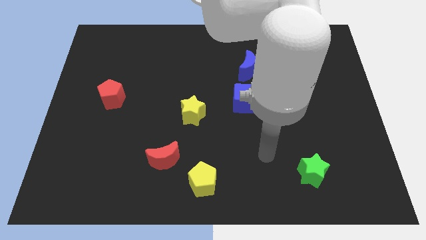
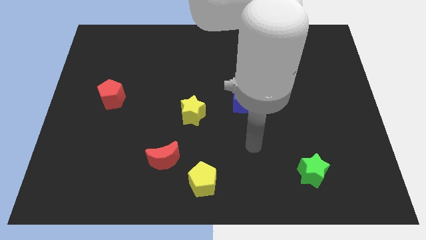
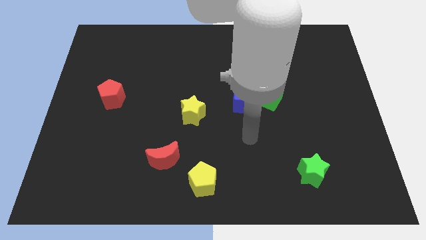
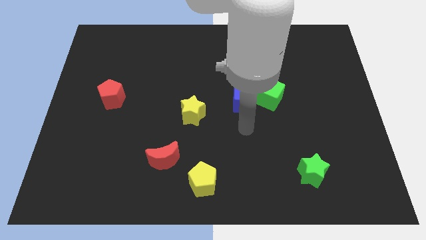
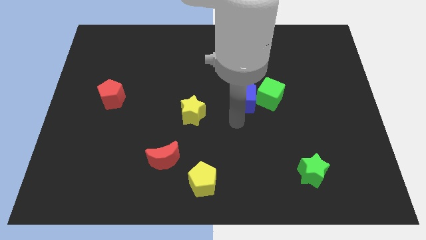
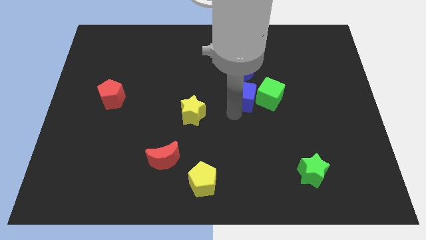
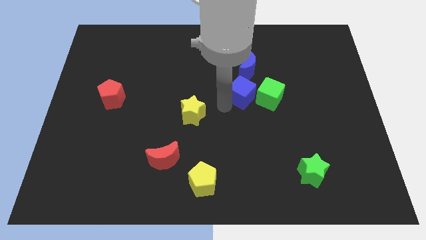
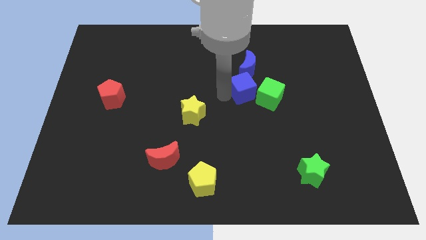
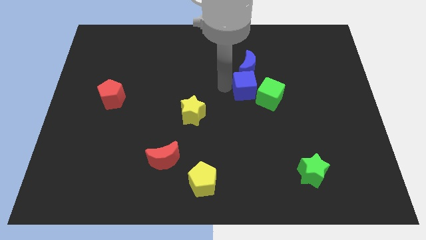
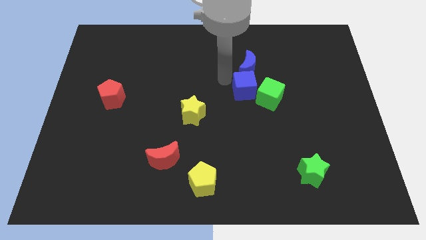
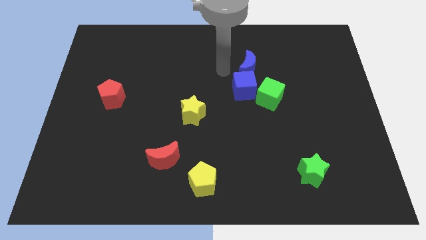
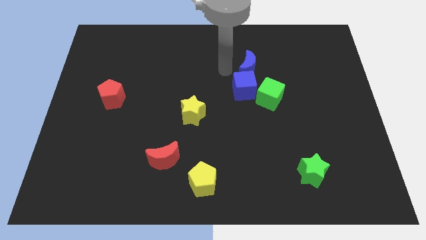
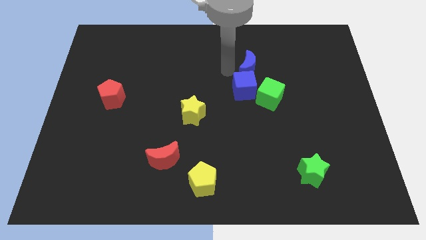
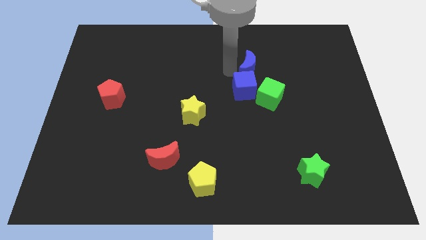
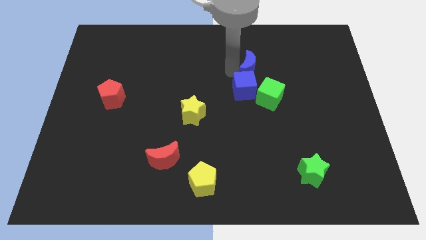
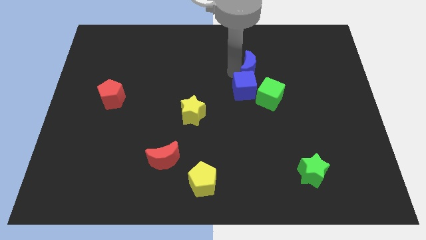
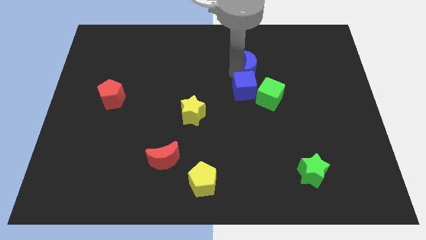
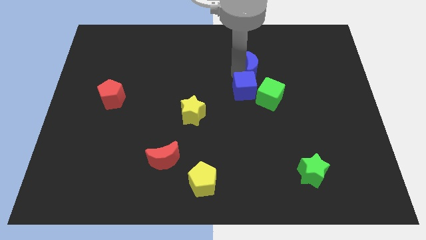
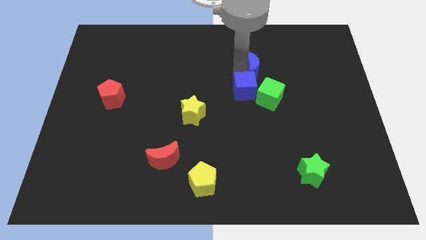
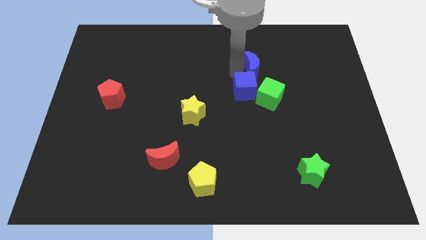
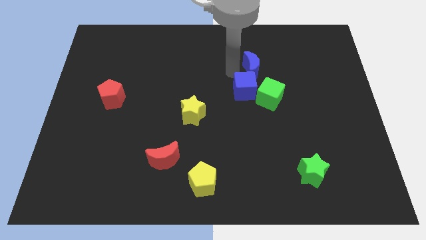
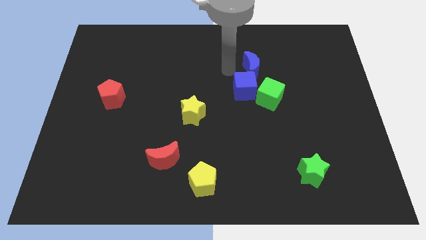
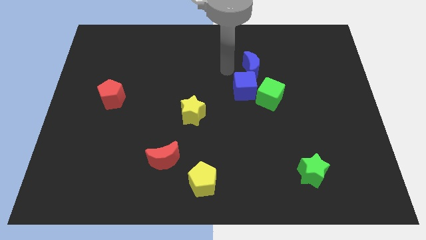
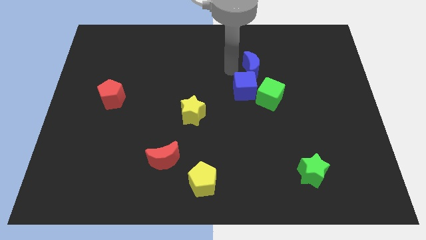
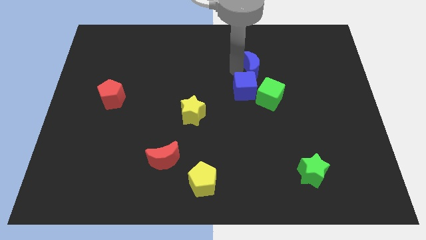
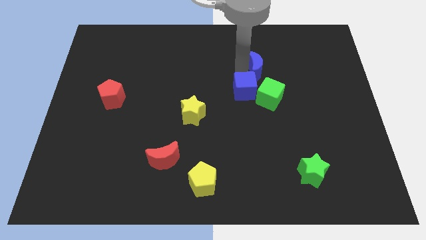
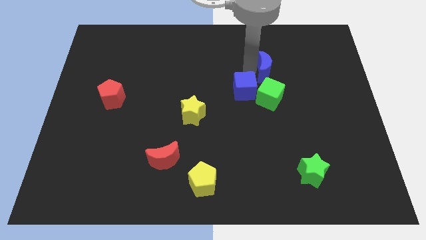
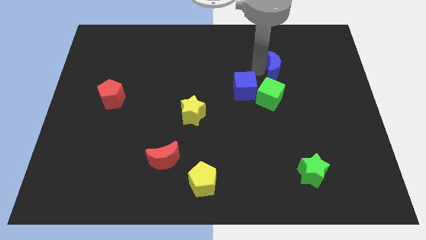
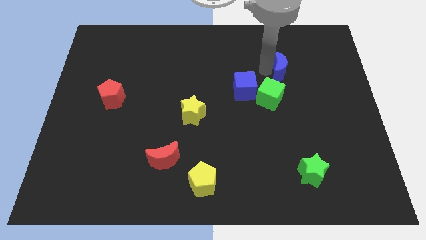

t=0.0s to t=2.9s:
slightly move the blue moon right

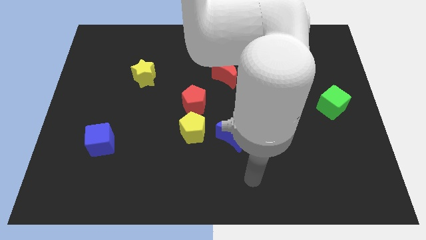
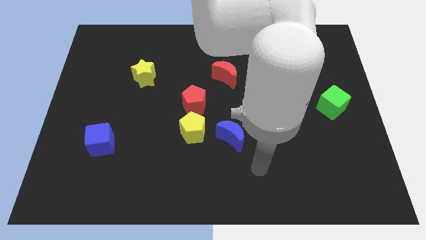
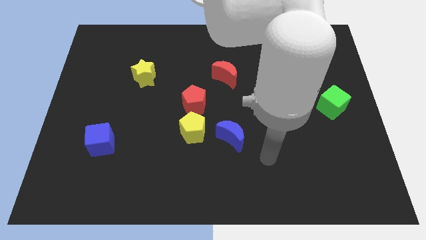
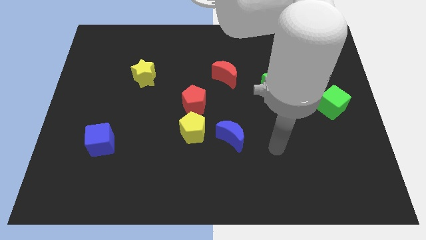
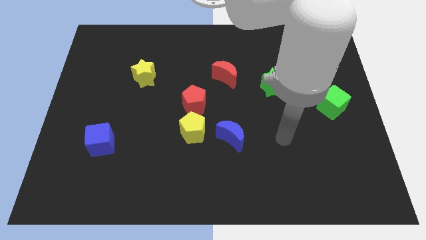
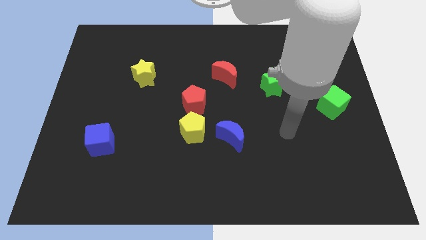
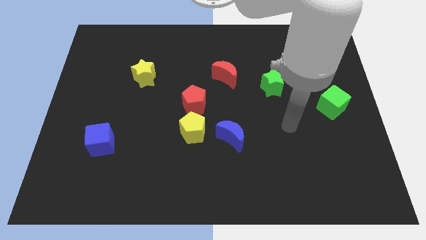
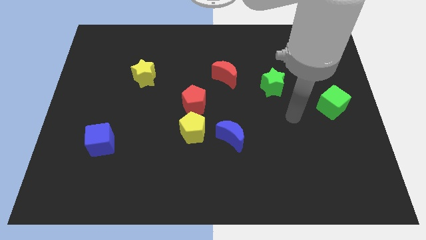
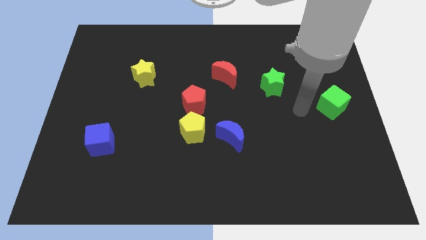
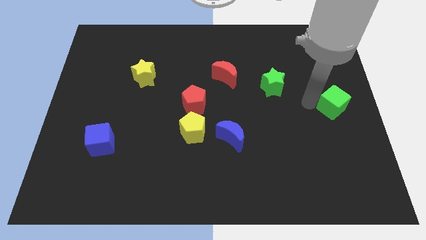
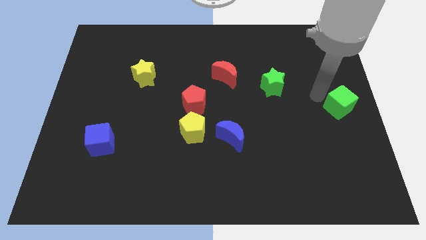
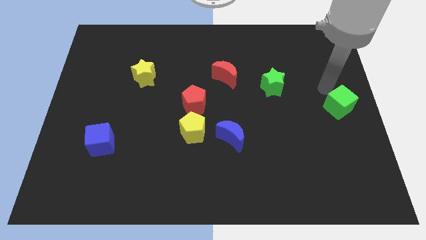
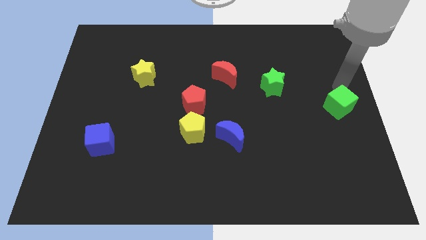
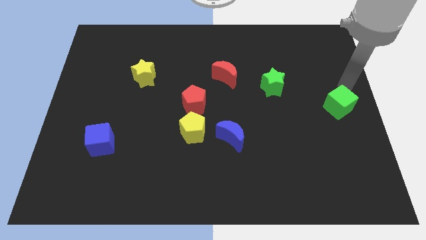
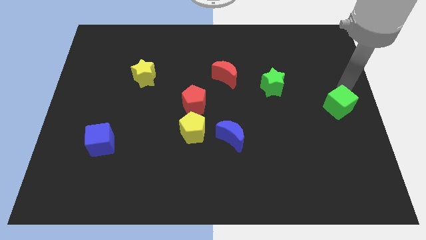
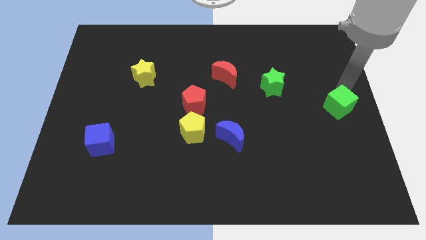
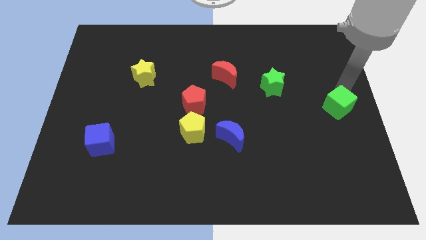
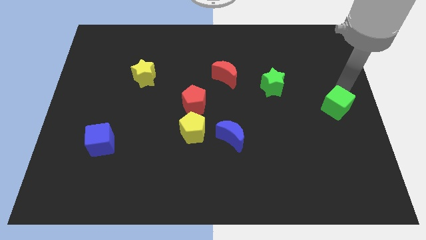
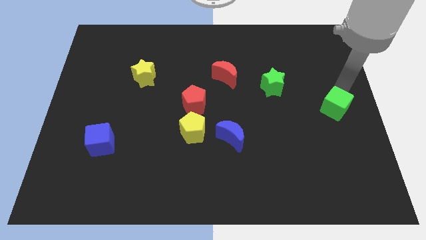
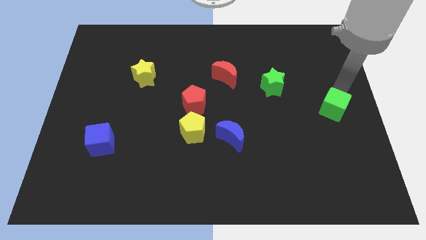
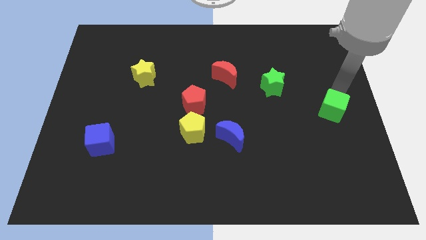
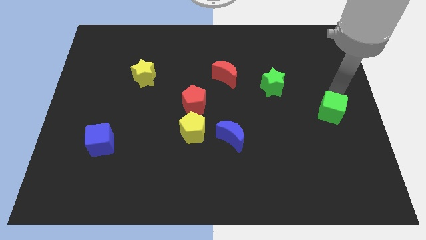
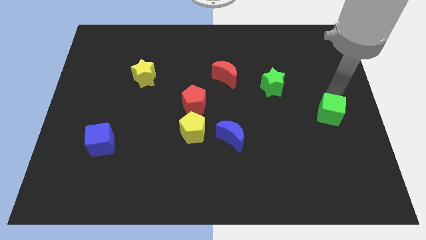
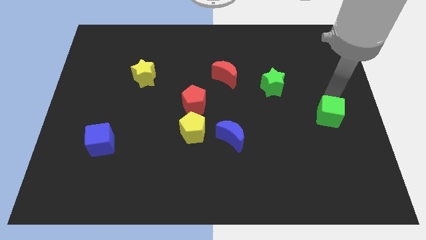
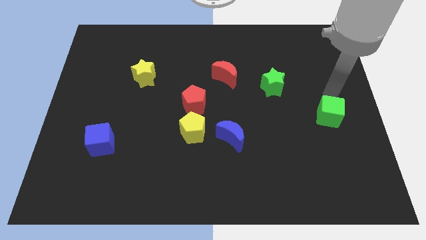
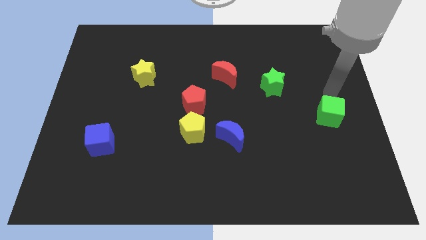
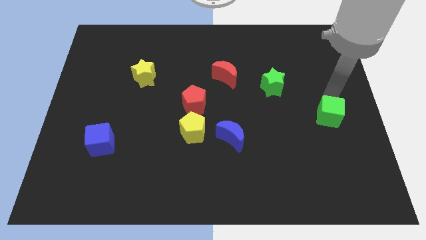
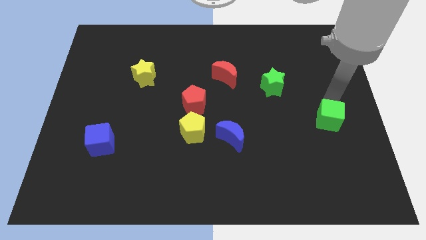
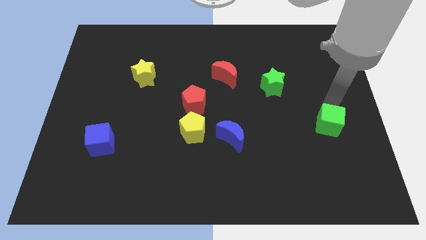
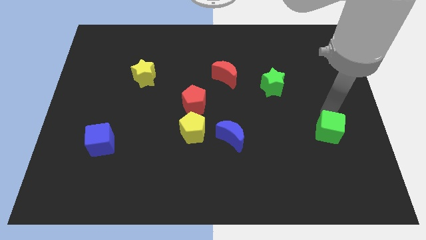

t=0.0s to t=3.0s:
slightly move the green cube down

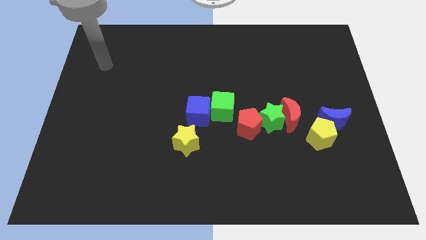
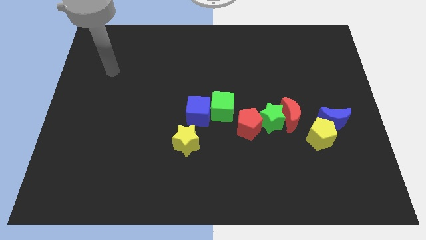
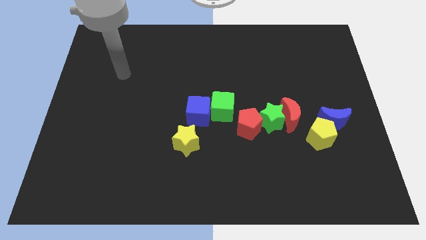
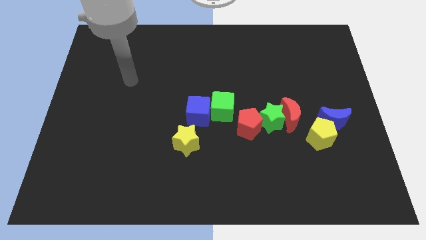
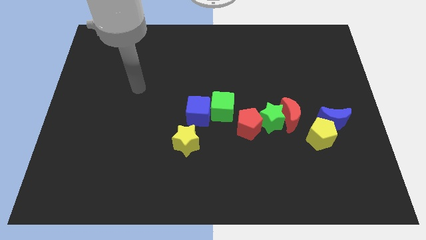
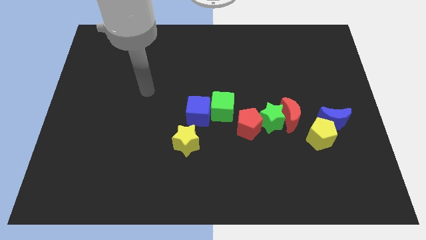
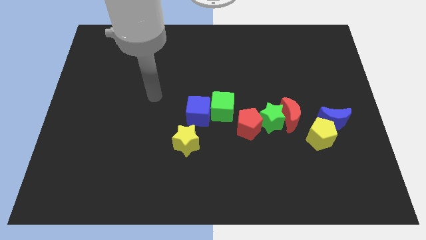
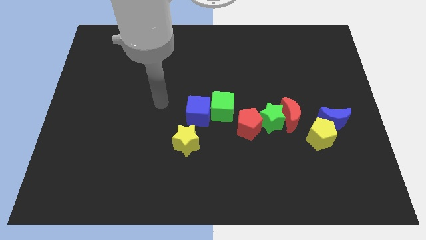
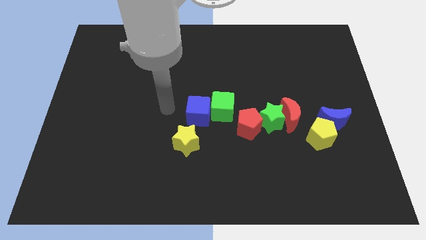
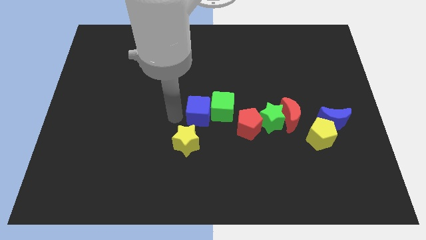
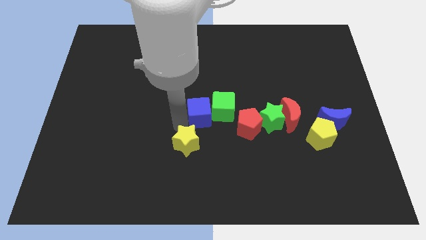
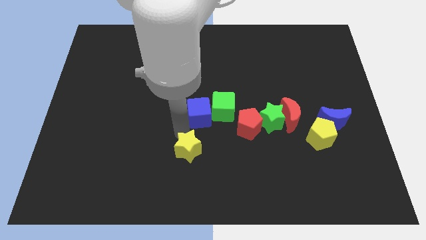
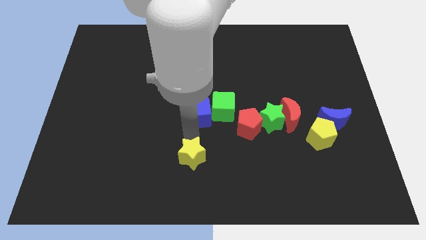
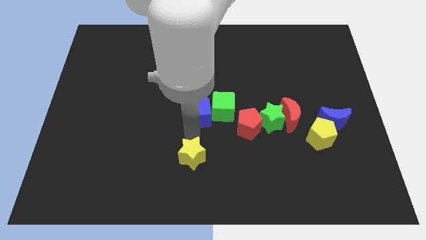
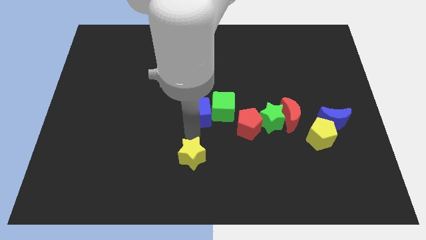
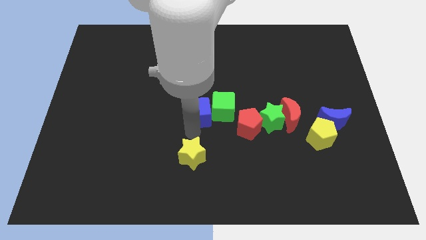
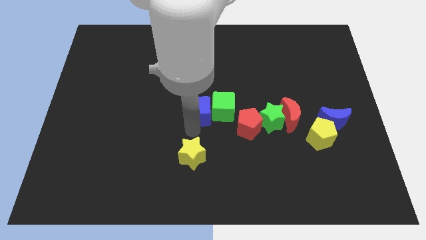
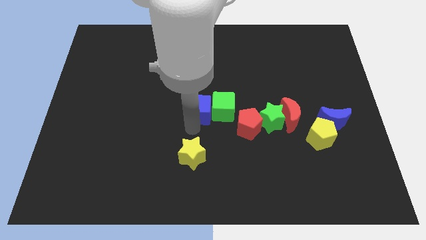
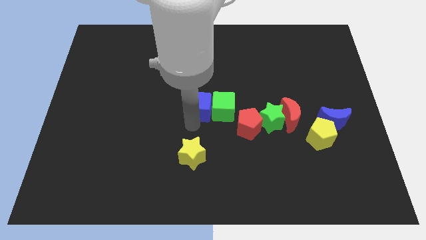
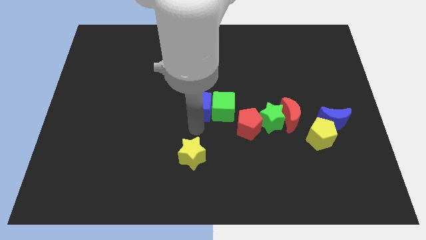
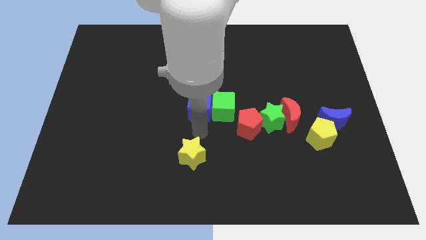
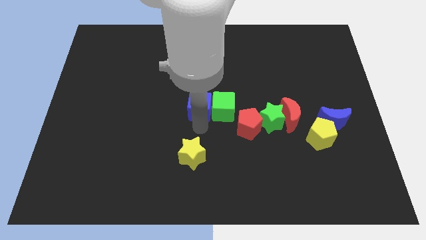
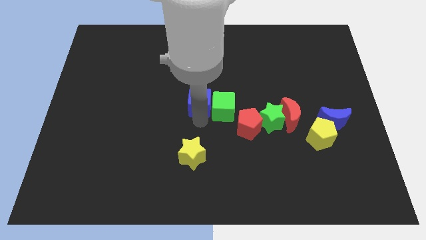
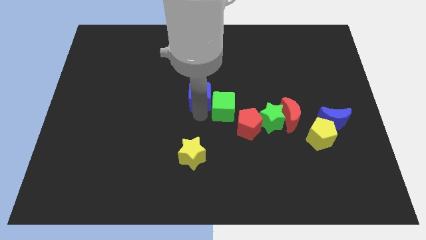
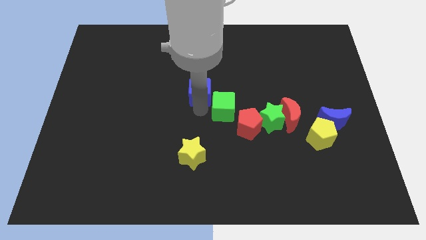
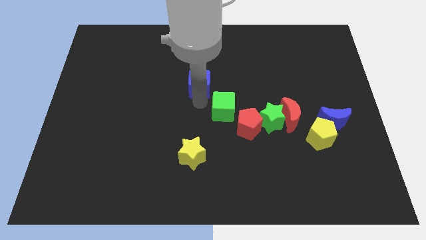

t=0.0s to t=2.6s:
move the blue cube a little bit up
